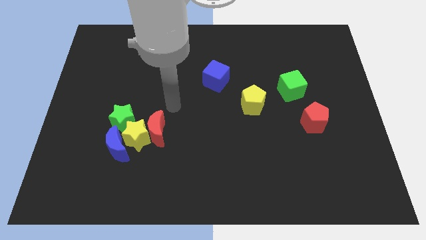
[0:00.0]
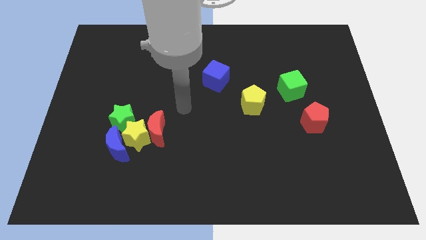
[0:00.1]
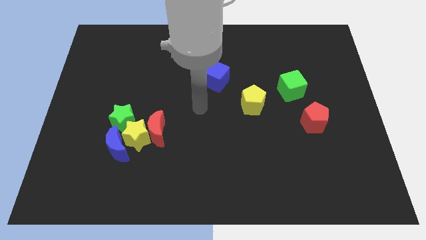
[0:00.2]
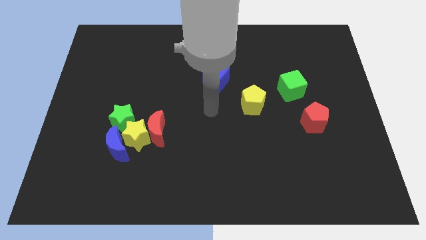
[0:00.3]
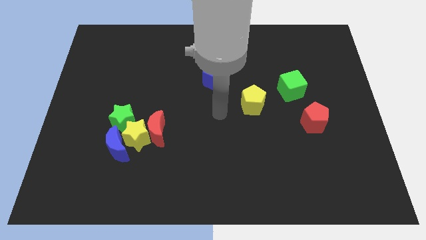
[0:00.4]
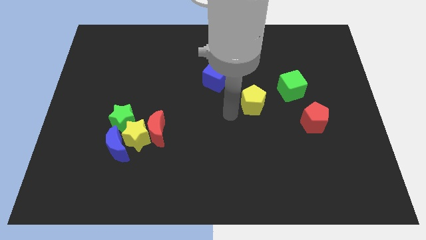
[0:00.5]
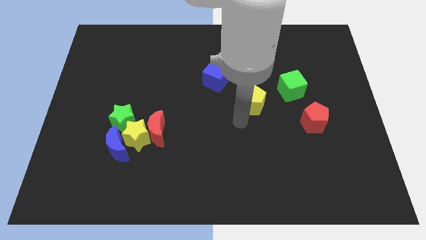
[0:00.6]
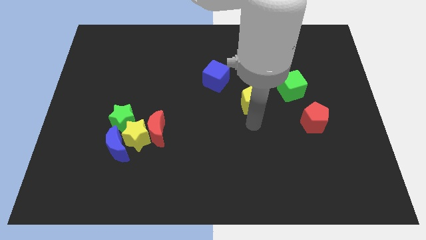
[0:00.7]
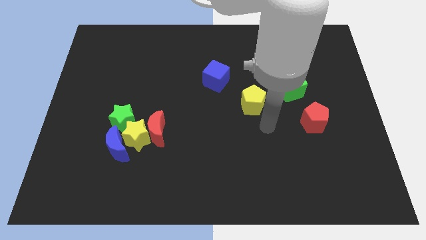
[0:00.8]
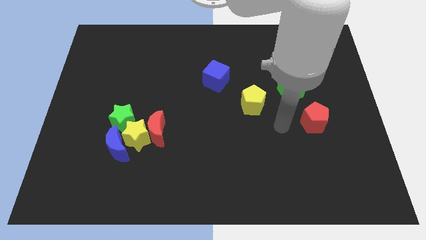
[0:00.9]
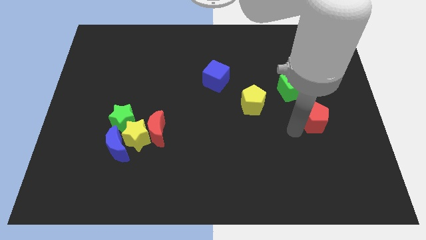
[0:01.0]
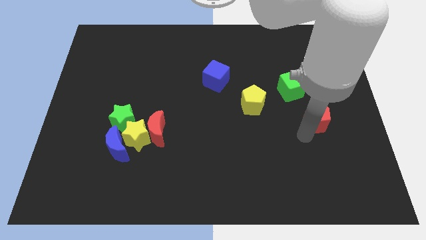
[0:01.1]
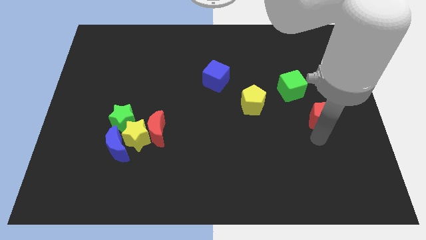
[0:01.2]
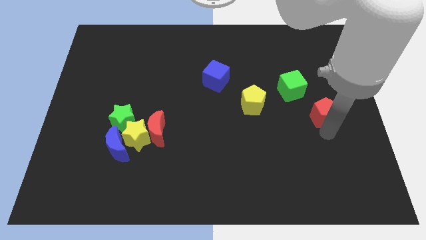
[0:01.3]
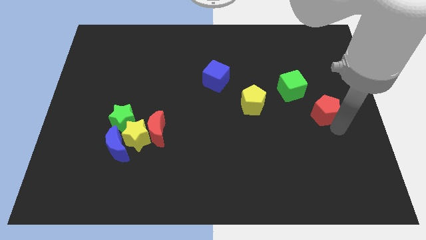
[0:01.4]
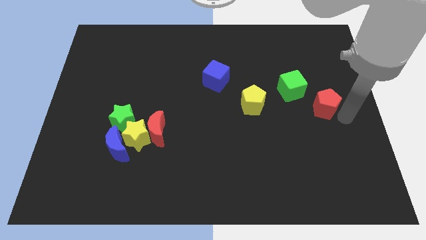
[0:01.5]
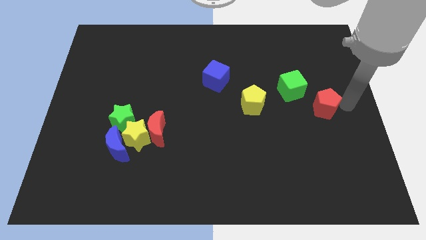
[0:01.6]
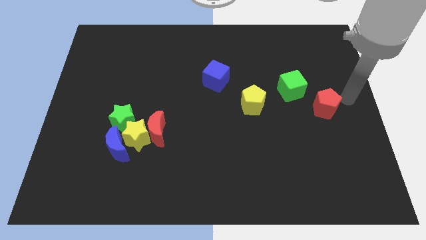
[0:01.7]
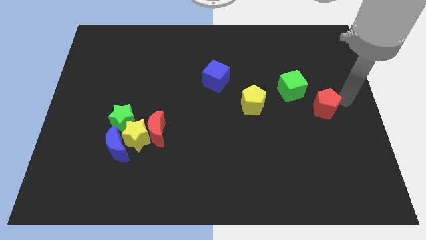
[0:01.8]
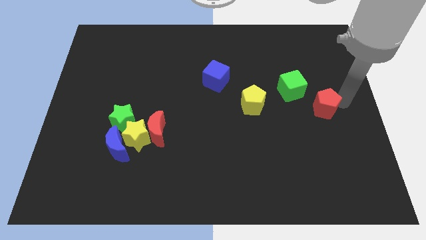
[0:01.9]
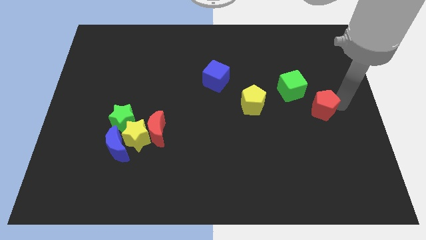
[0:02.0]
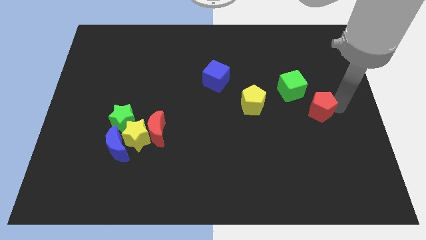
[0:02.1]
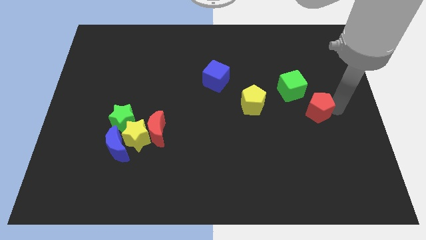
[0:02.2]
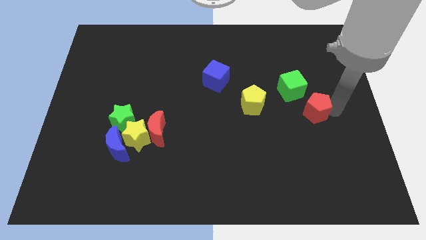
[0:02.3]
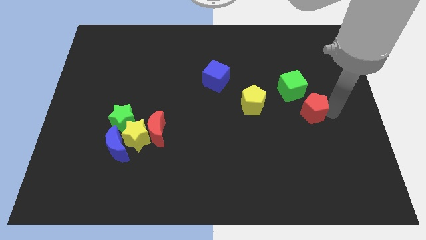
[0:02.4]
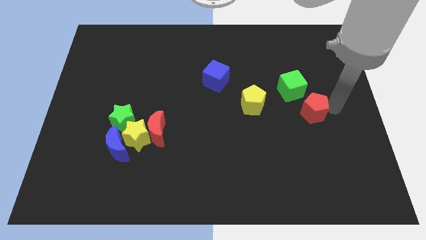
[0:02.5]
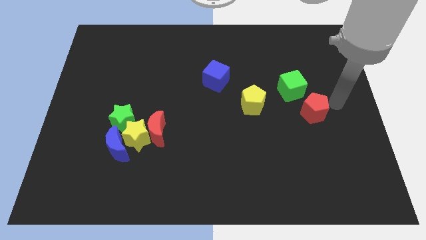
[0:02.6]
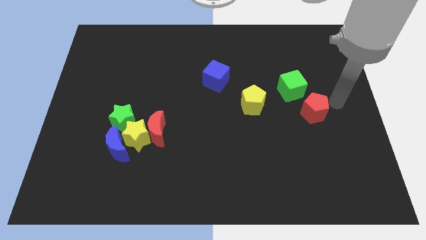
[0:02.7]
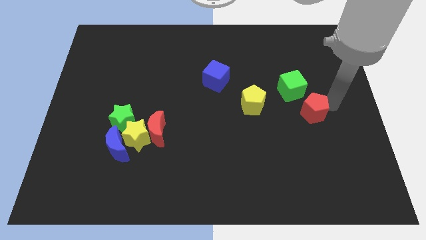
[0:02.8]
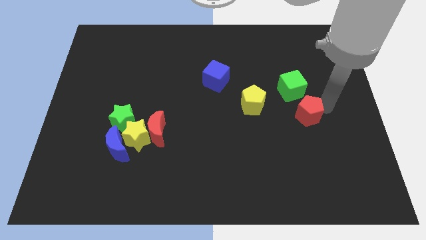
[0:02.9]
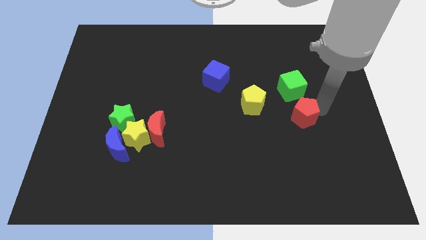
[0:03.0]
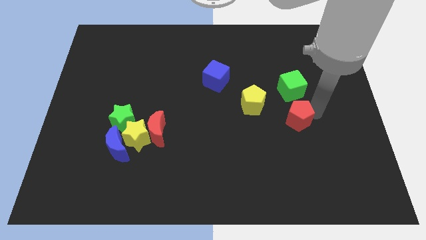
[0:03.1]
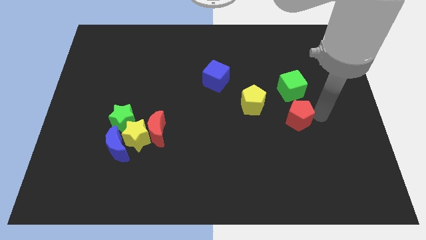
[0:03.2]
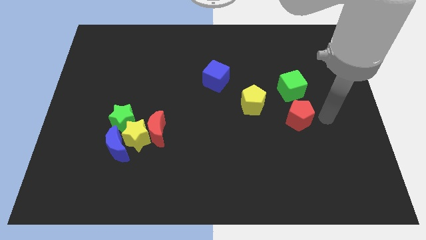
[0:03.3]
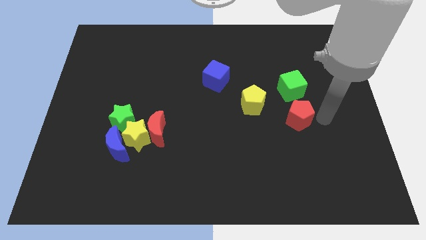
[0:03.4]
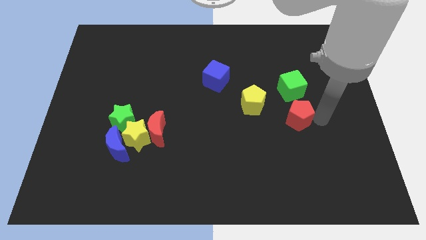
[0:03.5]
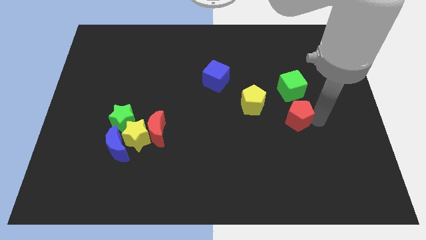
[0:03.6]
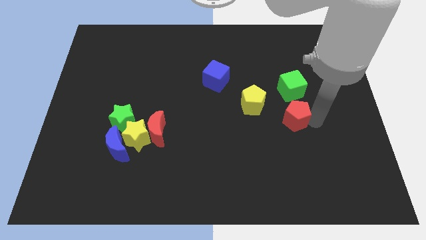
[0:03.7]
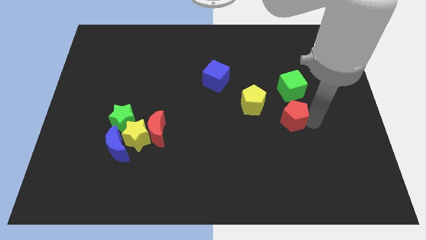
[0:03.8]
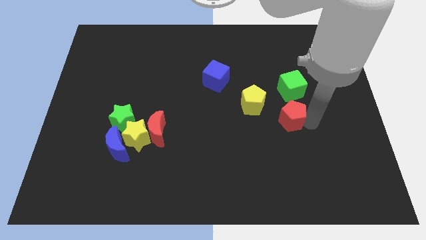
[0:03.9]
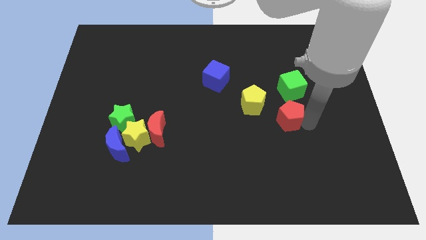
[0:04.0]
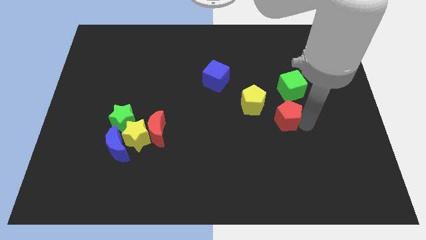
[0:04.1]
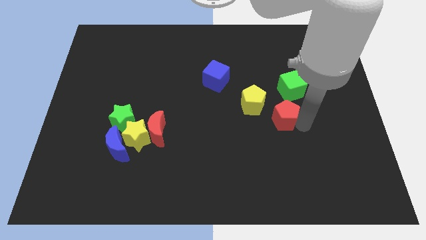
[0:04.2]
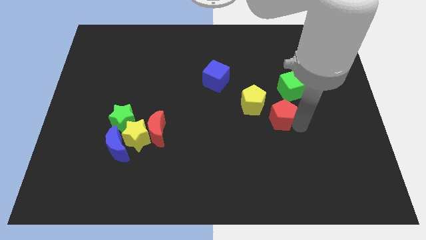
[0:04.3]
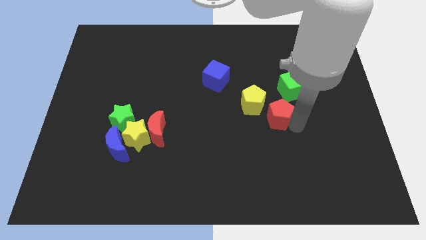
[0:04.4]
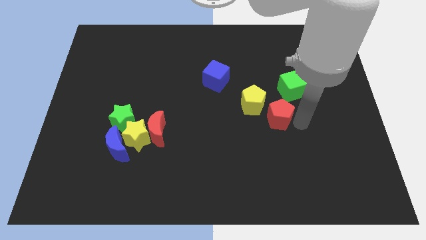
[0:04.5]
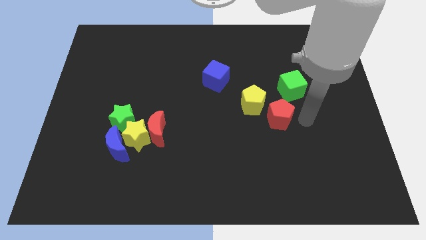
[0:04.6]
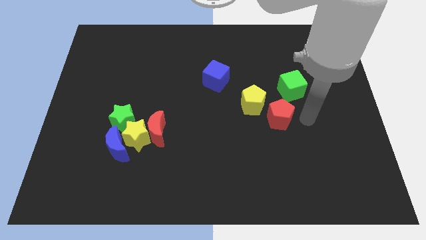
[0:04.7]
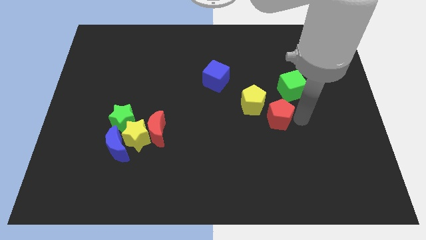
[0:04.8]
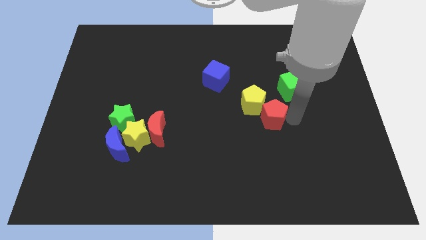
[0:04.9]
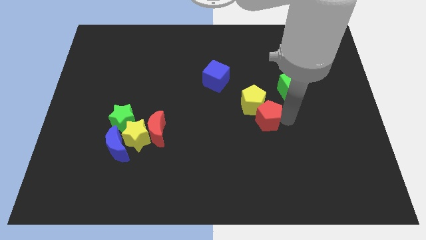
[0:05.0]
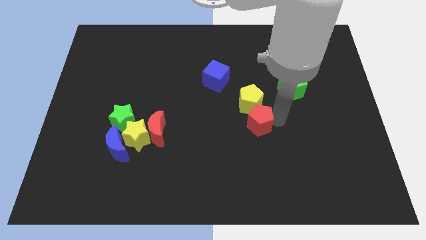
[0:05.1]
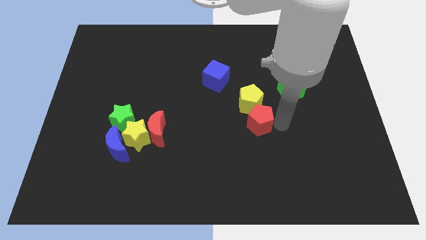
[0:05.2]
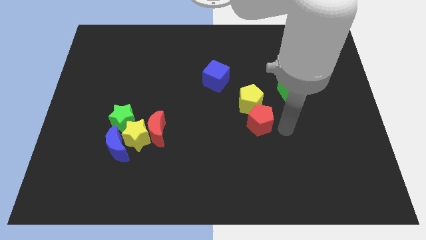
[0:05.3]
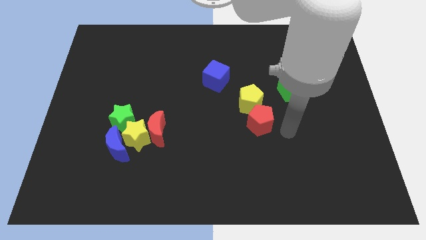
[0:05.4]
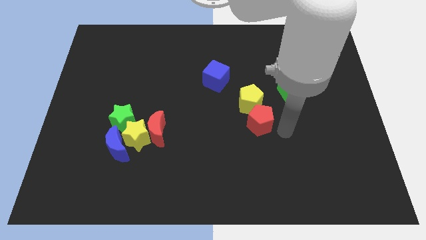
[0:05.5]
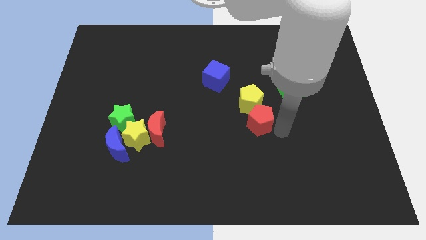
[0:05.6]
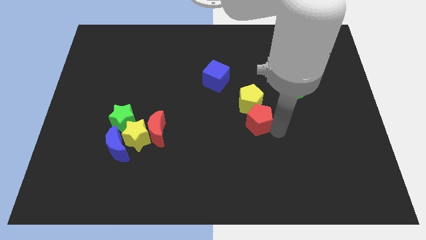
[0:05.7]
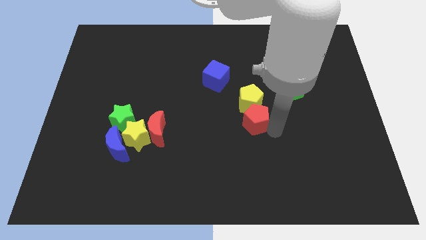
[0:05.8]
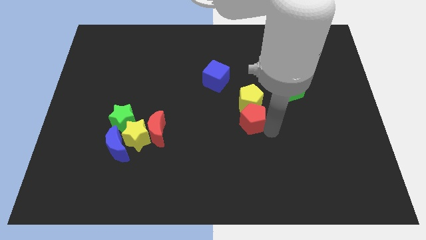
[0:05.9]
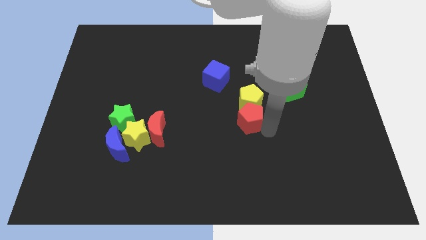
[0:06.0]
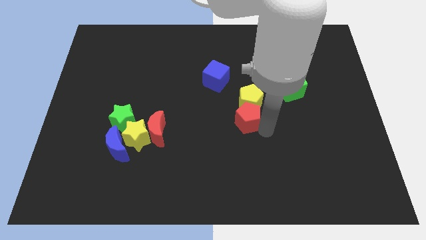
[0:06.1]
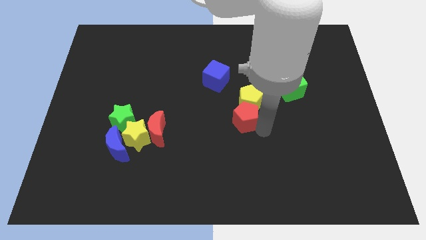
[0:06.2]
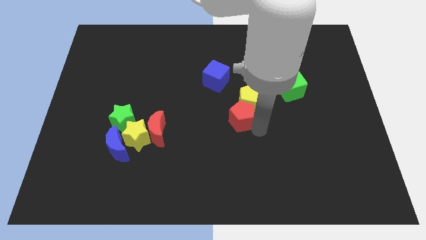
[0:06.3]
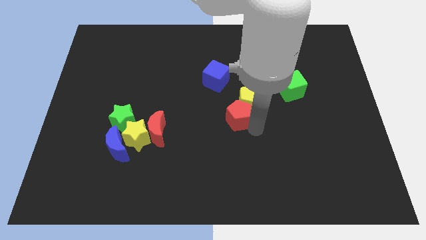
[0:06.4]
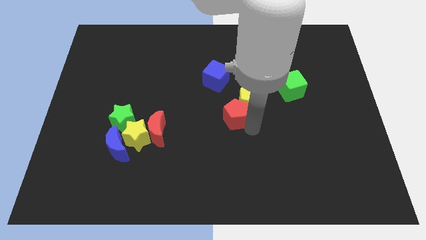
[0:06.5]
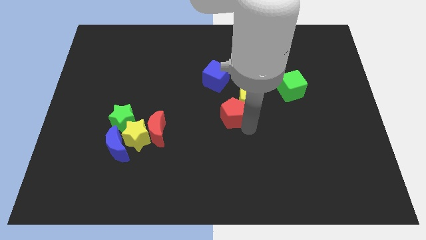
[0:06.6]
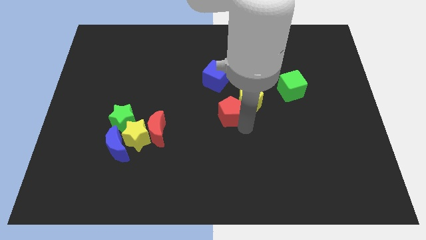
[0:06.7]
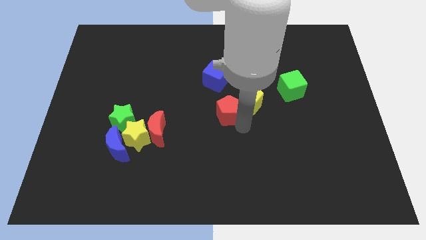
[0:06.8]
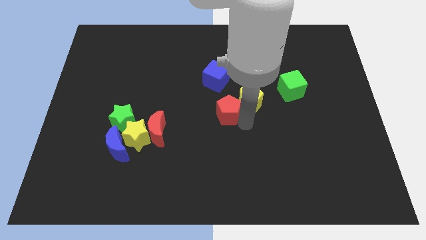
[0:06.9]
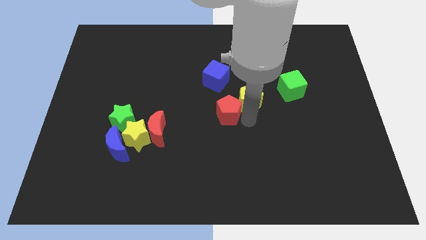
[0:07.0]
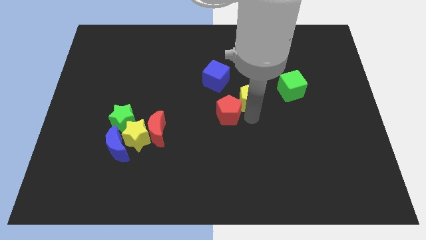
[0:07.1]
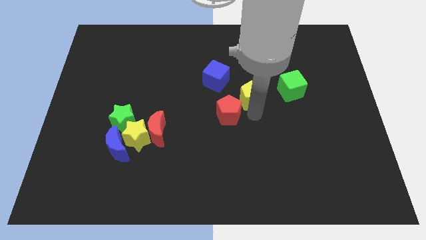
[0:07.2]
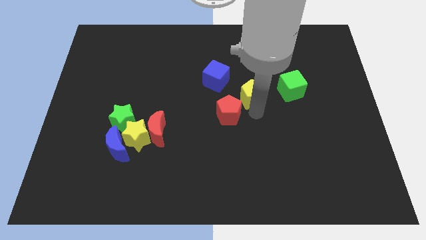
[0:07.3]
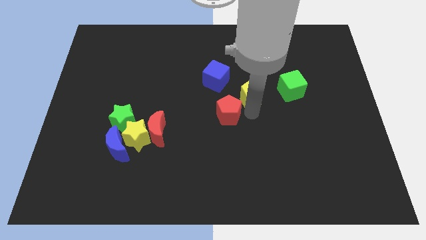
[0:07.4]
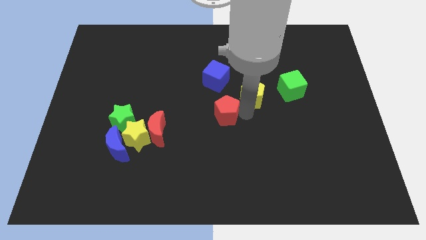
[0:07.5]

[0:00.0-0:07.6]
slide the red pentagon to the left

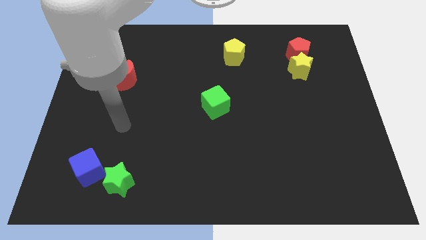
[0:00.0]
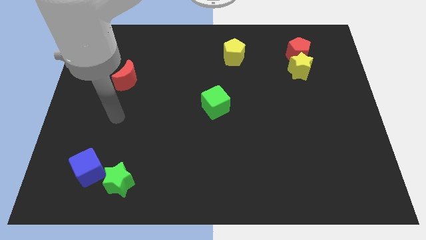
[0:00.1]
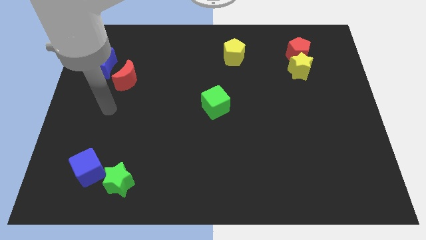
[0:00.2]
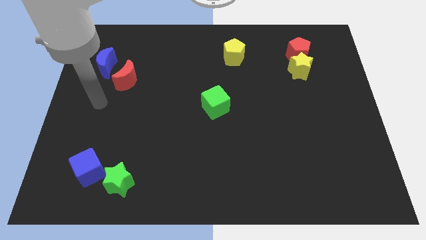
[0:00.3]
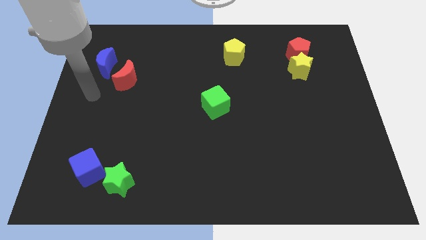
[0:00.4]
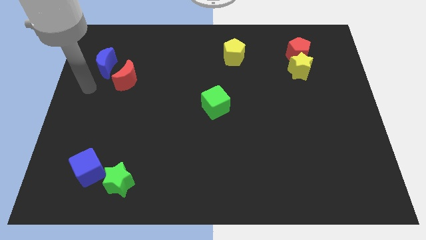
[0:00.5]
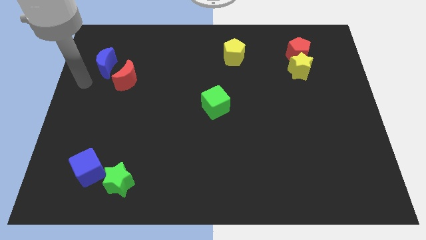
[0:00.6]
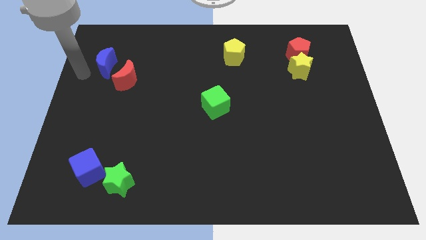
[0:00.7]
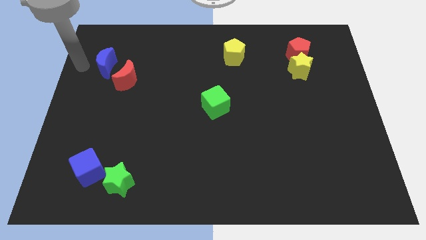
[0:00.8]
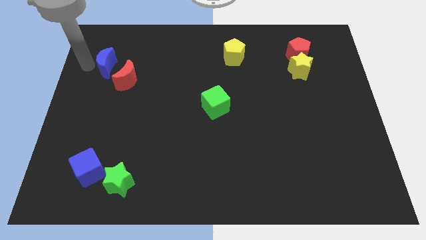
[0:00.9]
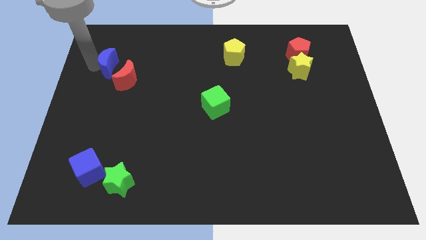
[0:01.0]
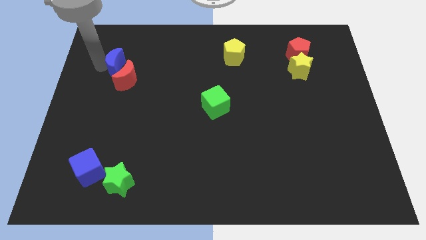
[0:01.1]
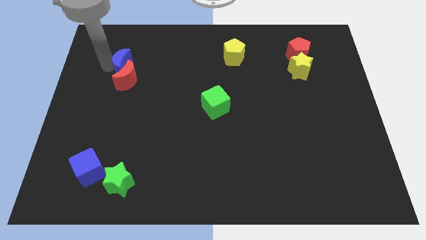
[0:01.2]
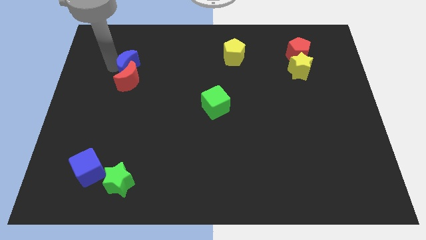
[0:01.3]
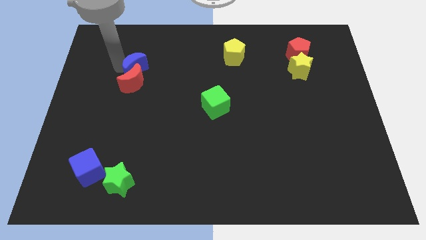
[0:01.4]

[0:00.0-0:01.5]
push the blue moon a bit to the right
